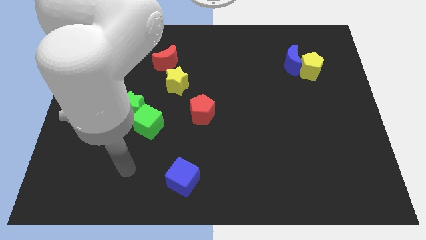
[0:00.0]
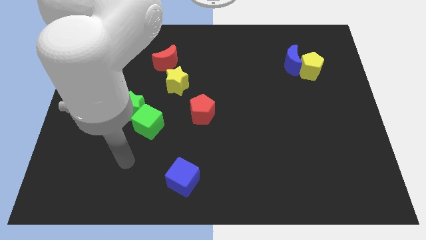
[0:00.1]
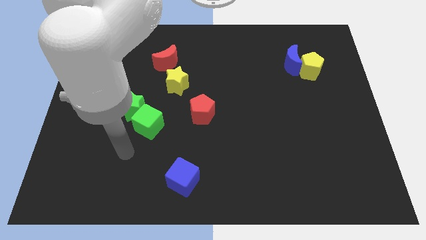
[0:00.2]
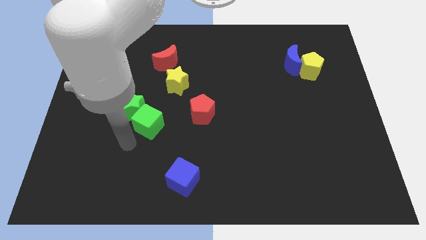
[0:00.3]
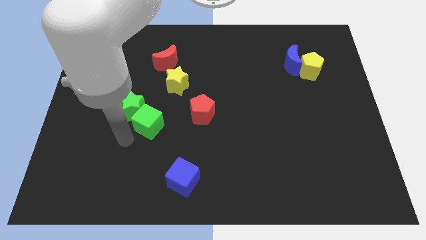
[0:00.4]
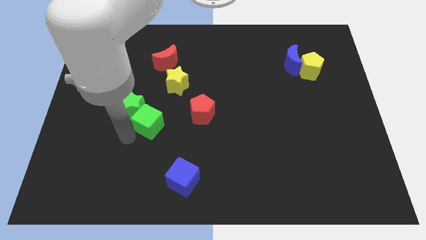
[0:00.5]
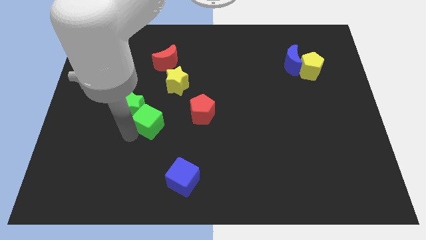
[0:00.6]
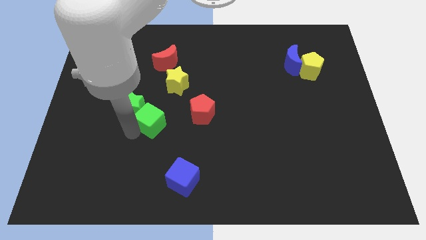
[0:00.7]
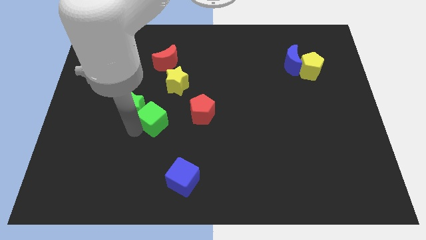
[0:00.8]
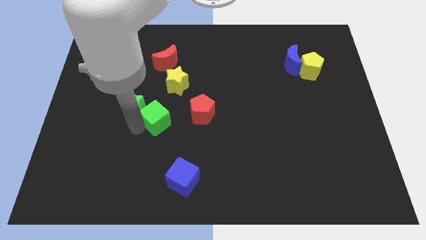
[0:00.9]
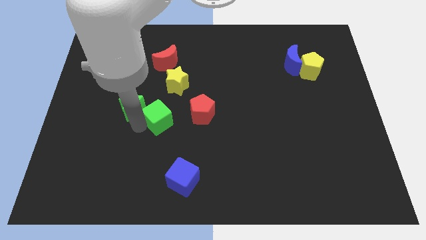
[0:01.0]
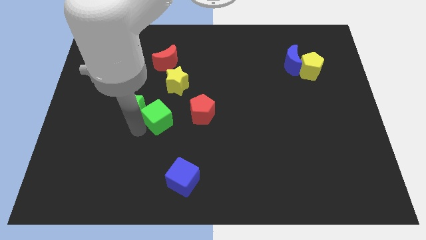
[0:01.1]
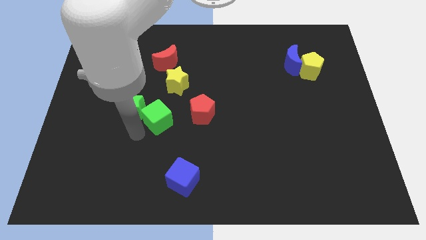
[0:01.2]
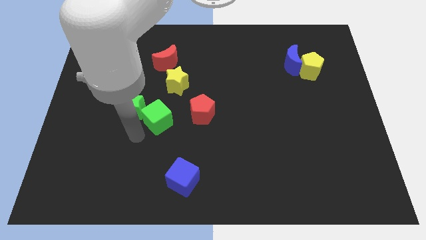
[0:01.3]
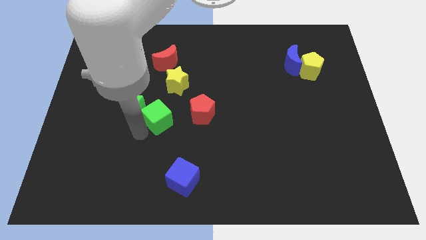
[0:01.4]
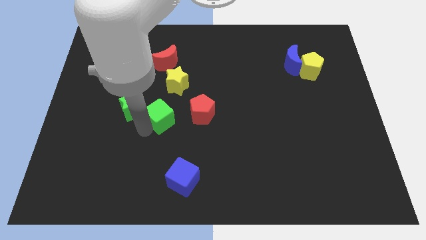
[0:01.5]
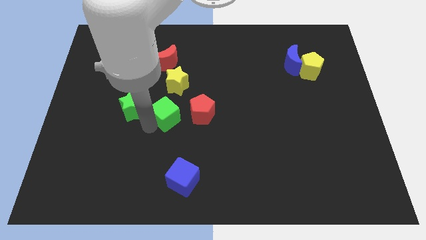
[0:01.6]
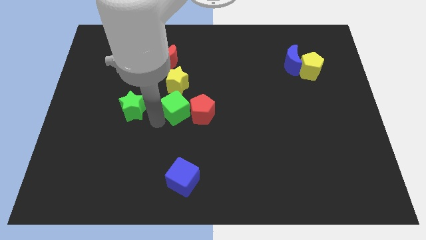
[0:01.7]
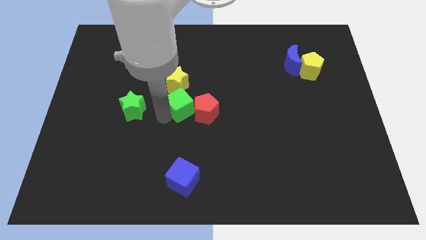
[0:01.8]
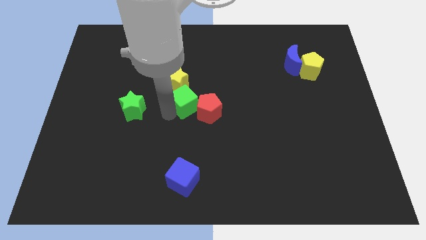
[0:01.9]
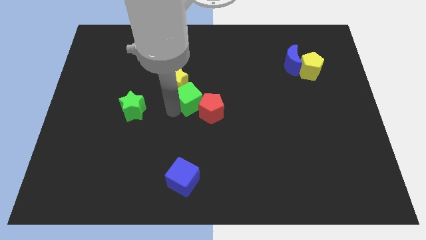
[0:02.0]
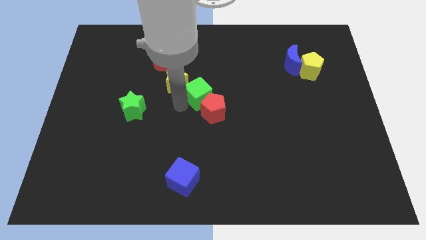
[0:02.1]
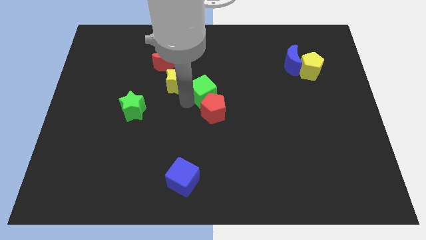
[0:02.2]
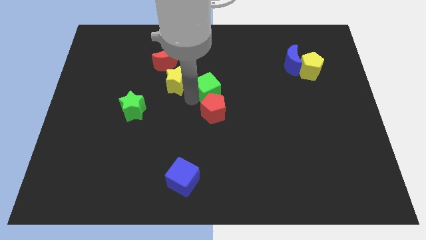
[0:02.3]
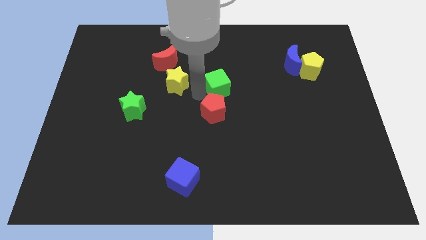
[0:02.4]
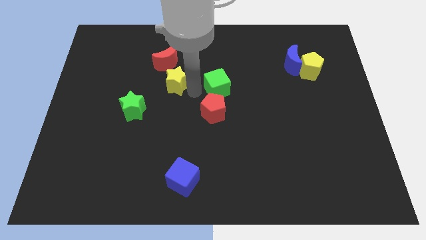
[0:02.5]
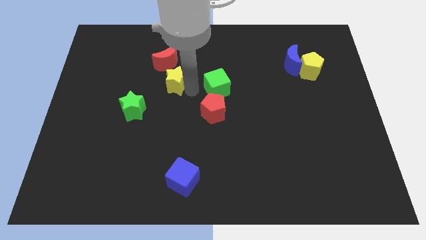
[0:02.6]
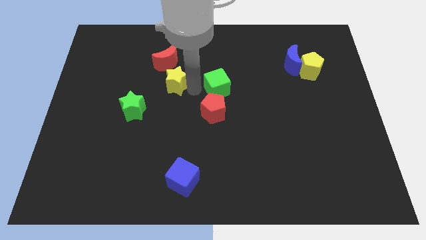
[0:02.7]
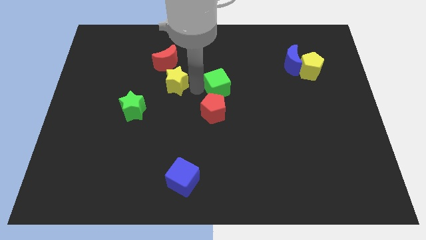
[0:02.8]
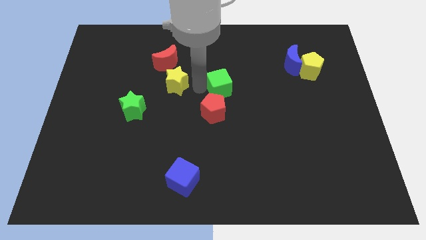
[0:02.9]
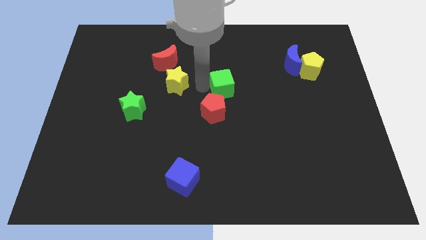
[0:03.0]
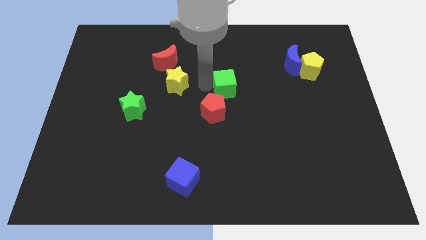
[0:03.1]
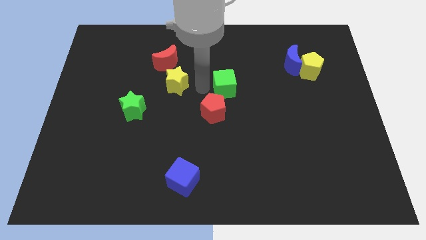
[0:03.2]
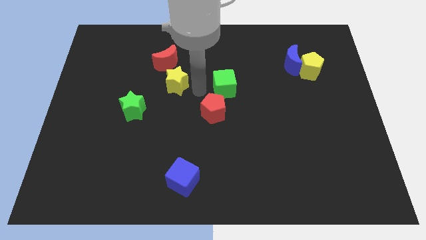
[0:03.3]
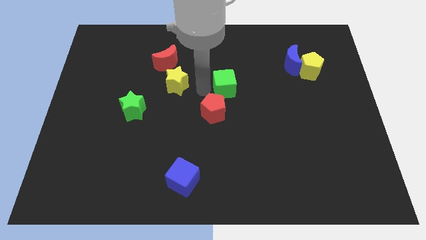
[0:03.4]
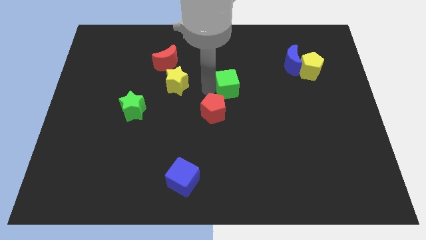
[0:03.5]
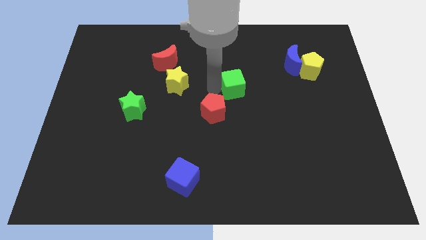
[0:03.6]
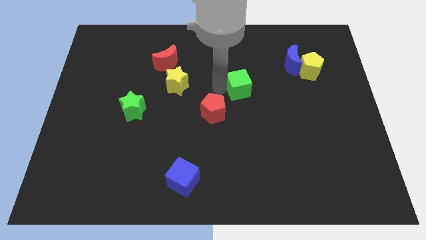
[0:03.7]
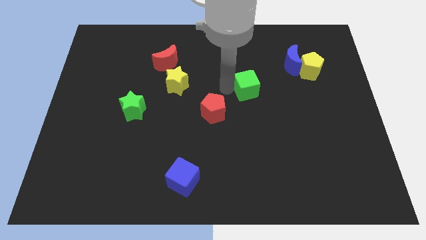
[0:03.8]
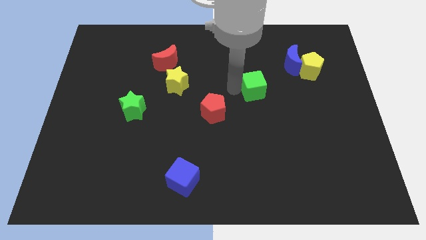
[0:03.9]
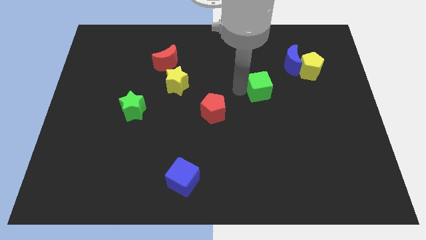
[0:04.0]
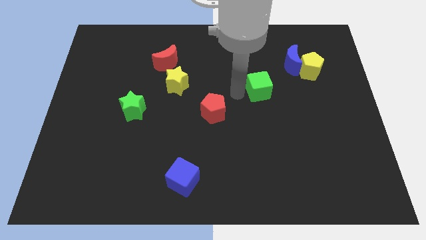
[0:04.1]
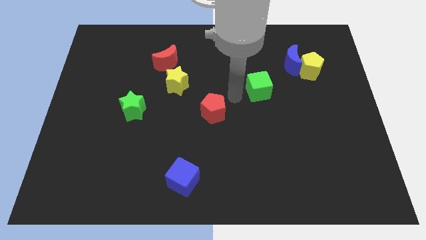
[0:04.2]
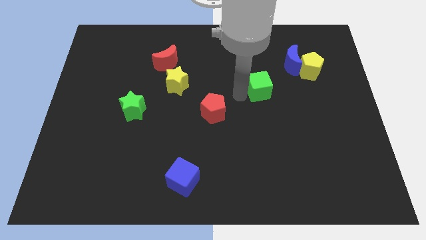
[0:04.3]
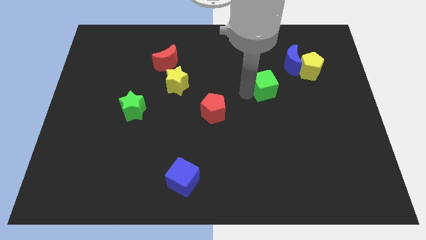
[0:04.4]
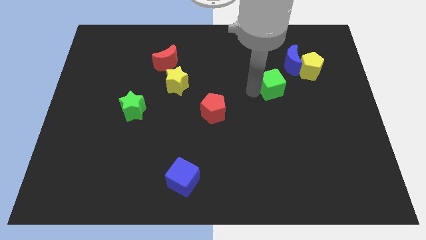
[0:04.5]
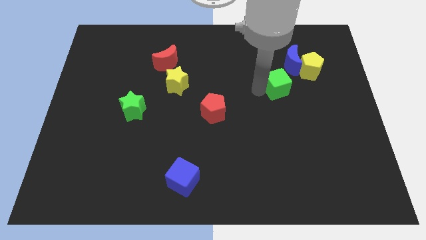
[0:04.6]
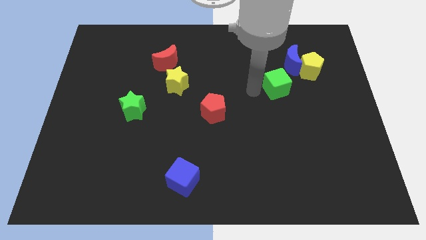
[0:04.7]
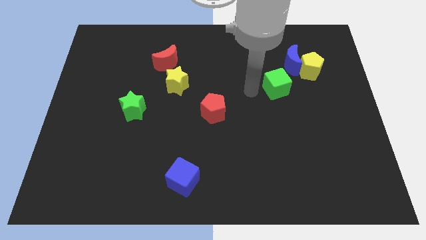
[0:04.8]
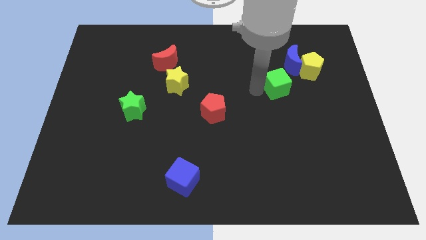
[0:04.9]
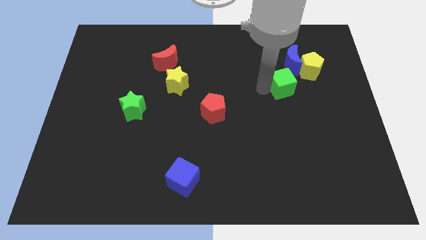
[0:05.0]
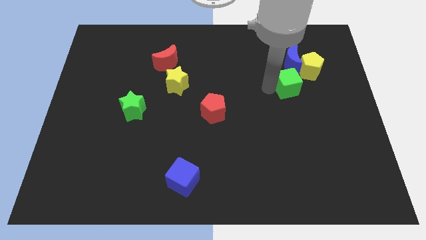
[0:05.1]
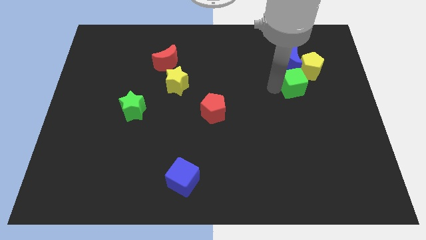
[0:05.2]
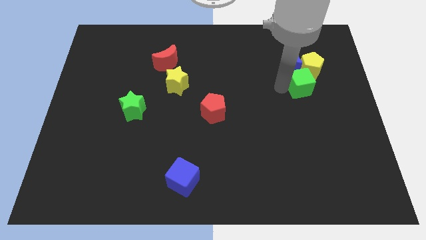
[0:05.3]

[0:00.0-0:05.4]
push the green cube to the bottom right side of the blue moon

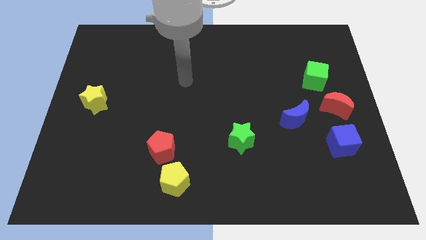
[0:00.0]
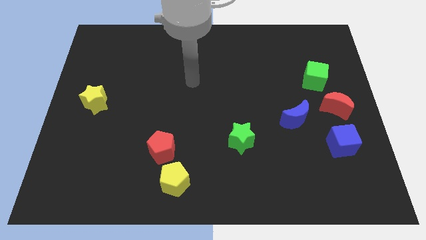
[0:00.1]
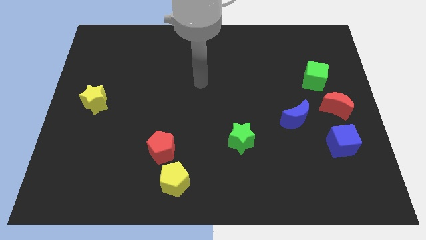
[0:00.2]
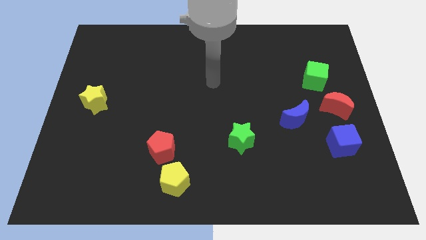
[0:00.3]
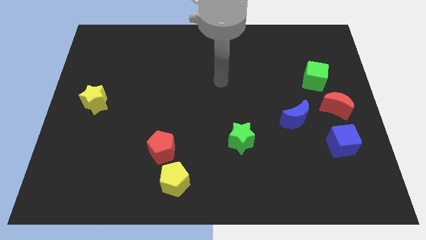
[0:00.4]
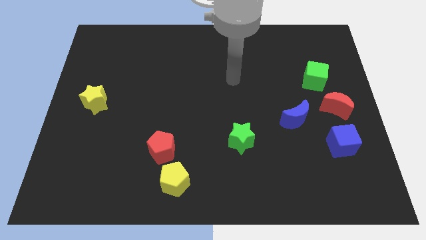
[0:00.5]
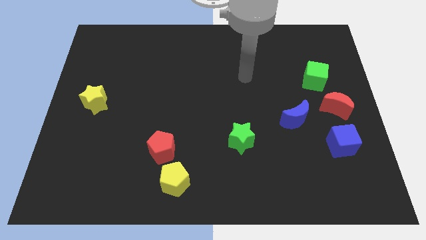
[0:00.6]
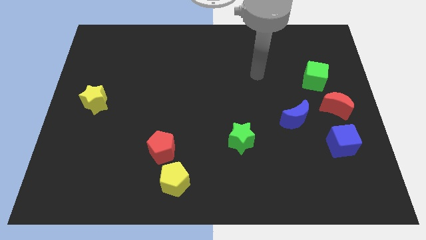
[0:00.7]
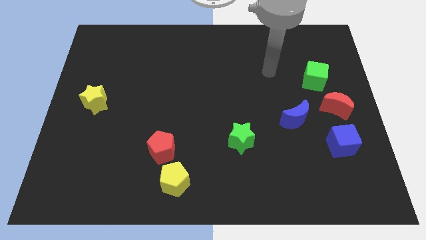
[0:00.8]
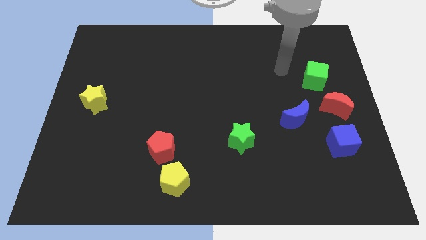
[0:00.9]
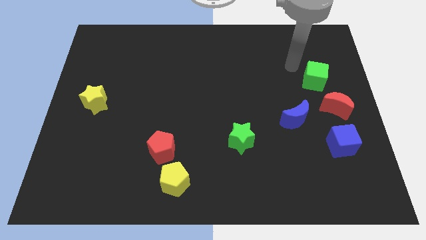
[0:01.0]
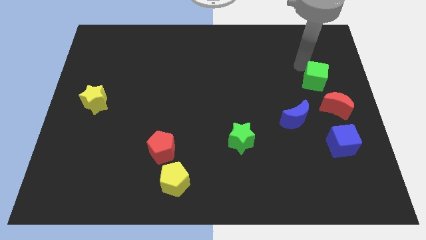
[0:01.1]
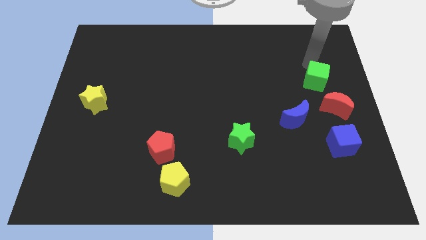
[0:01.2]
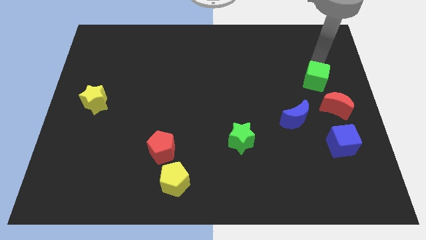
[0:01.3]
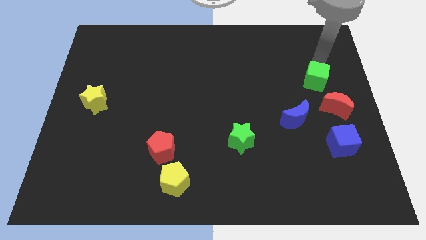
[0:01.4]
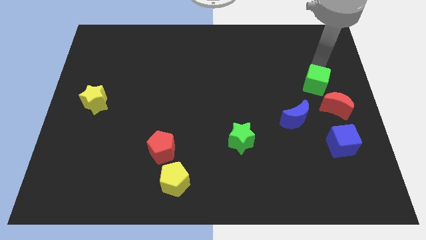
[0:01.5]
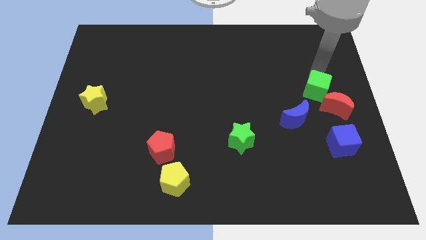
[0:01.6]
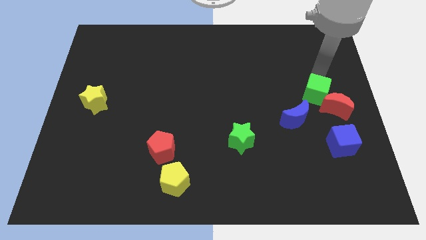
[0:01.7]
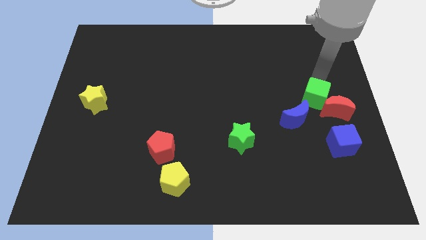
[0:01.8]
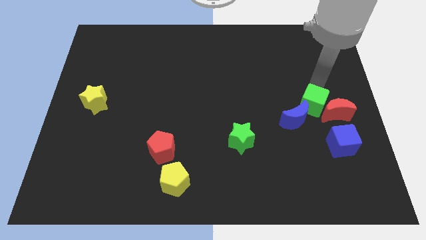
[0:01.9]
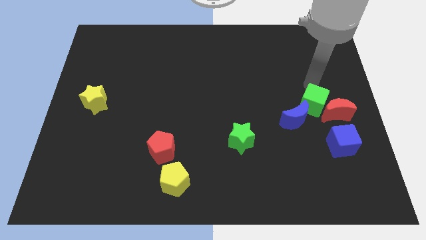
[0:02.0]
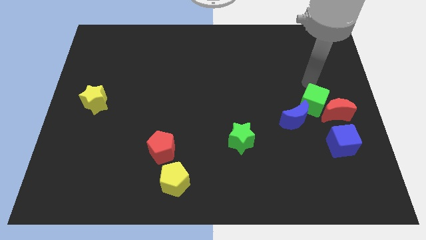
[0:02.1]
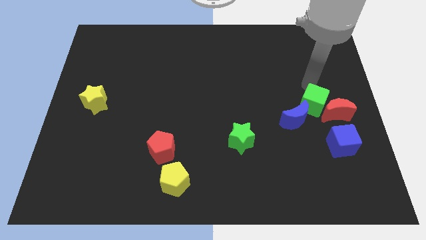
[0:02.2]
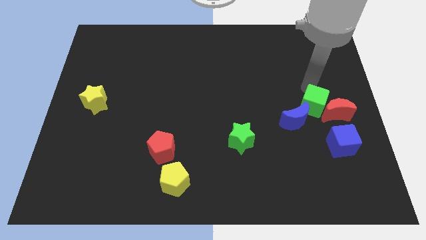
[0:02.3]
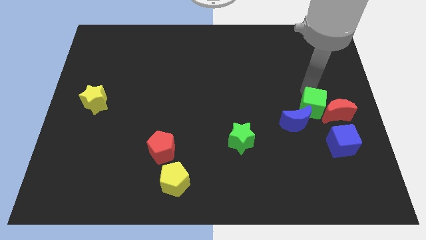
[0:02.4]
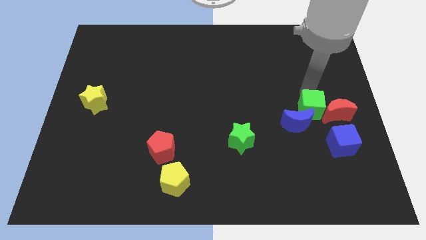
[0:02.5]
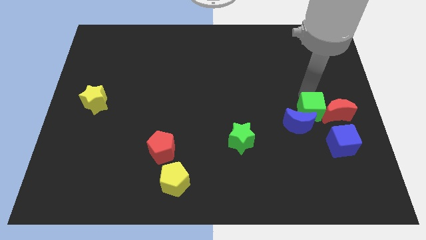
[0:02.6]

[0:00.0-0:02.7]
put the green cube to the bottom left of the red moon
